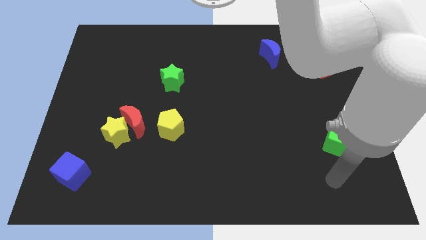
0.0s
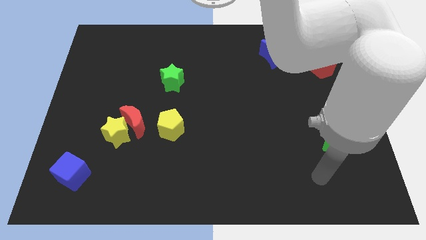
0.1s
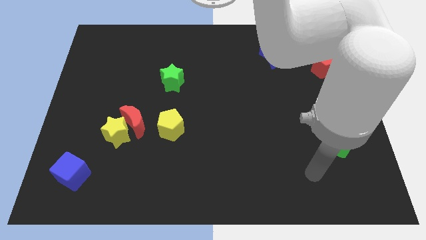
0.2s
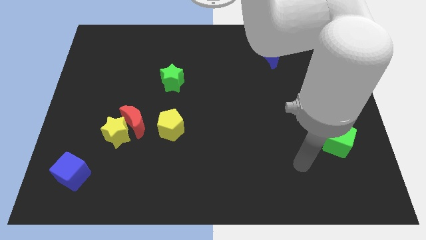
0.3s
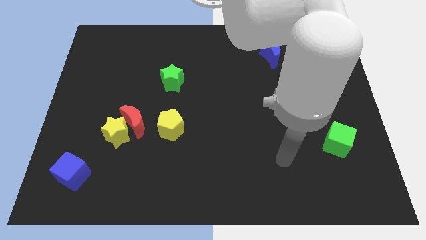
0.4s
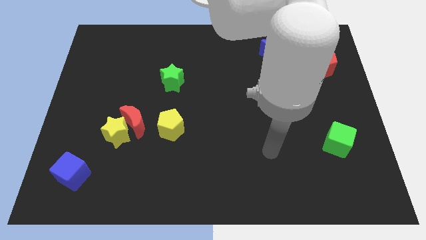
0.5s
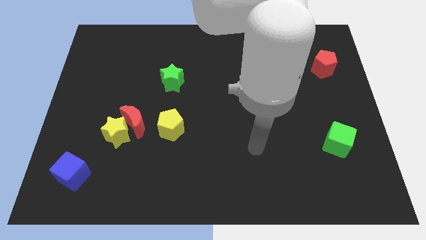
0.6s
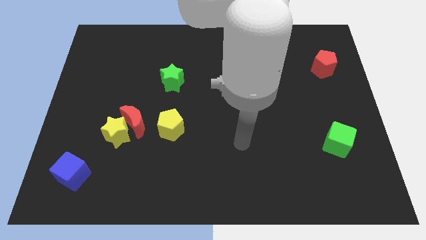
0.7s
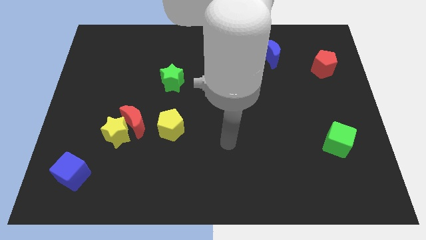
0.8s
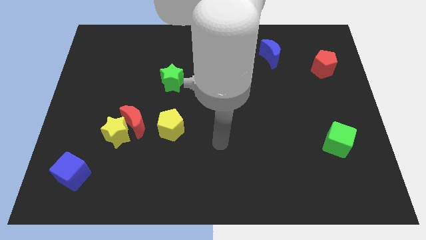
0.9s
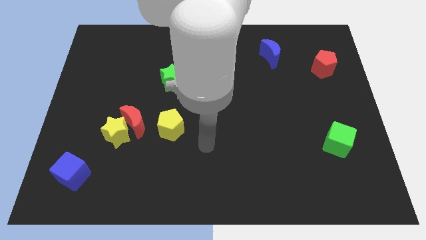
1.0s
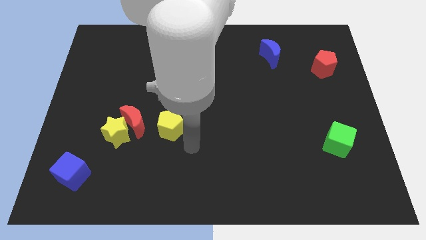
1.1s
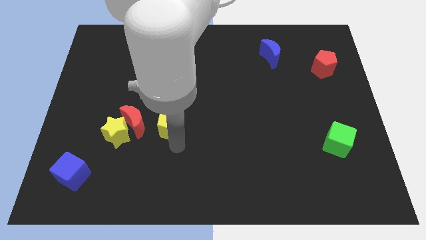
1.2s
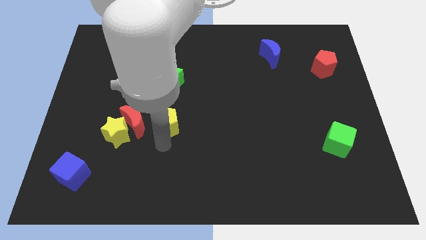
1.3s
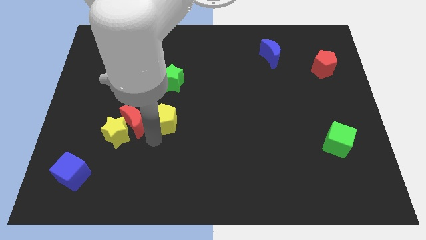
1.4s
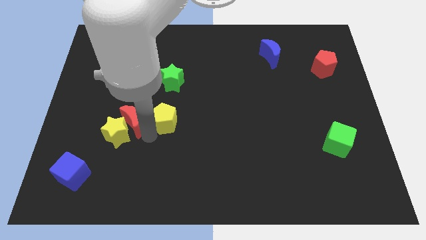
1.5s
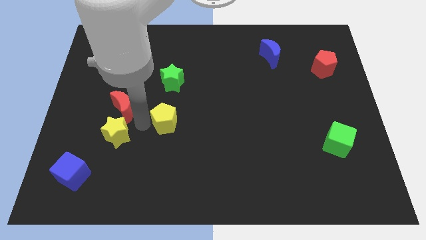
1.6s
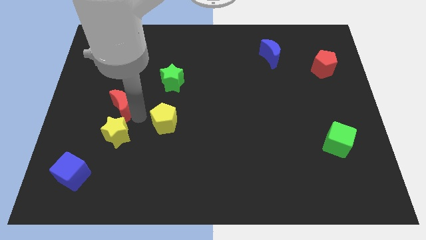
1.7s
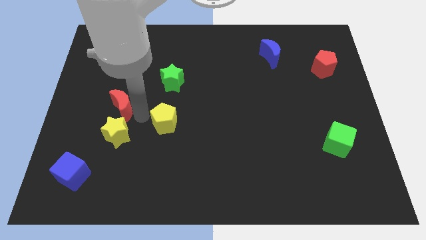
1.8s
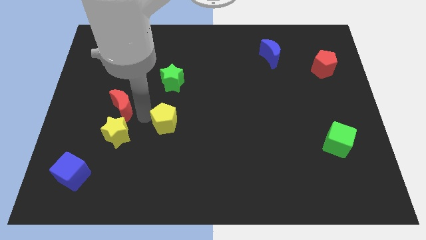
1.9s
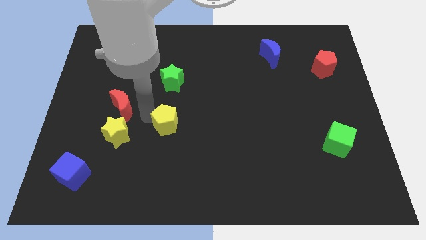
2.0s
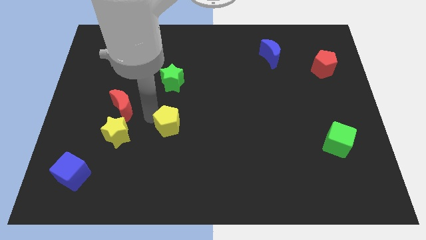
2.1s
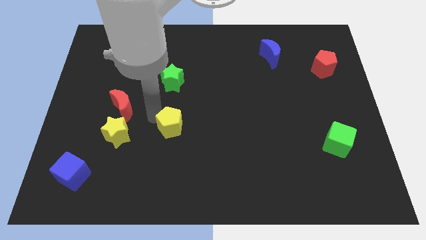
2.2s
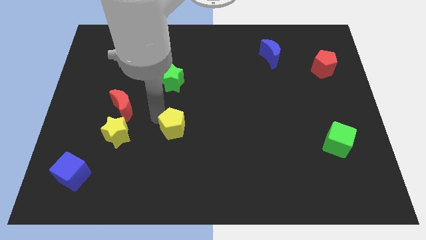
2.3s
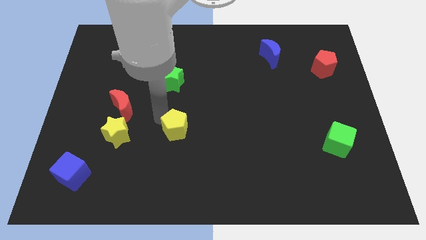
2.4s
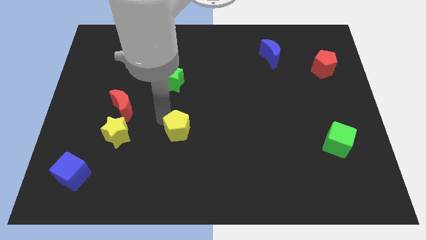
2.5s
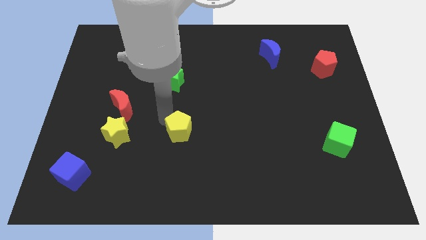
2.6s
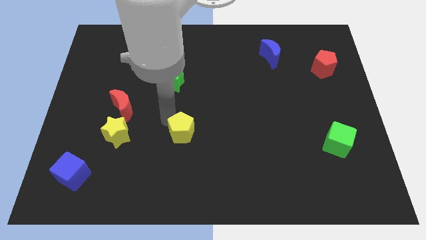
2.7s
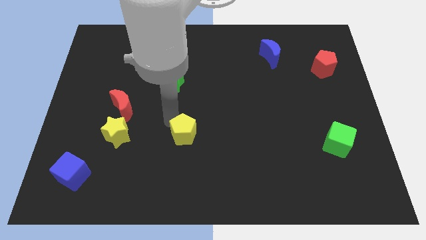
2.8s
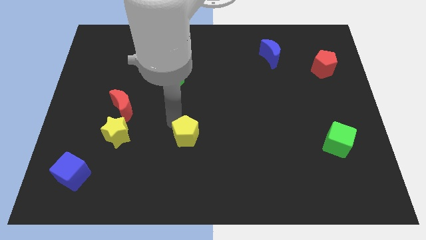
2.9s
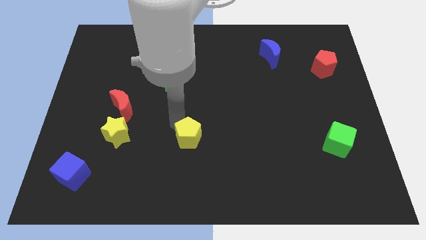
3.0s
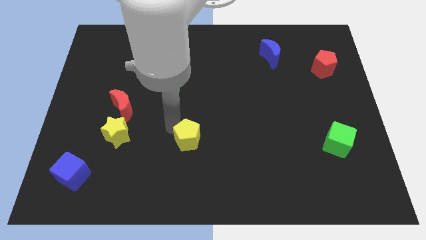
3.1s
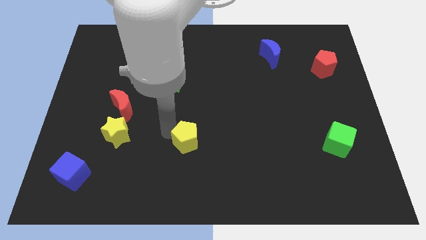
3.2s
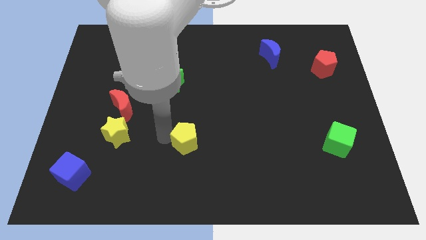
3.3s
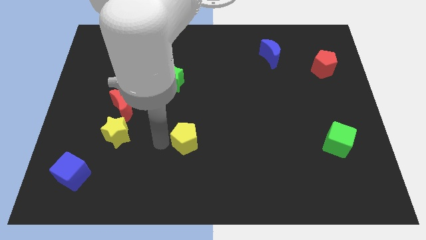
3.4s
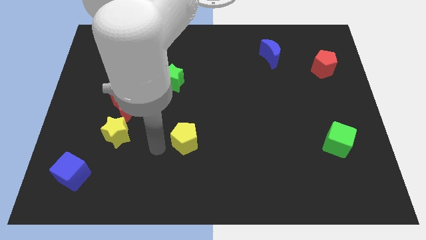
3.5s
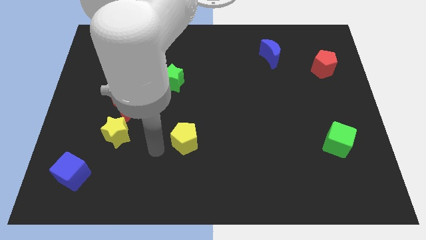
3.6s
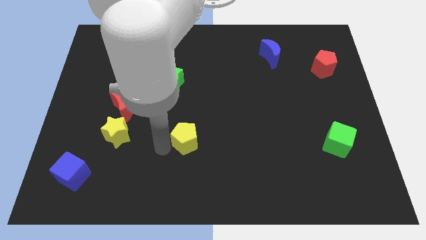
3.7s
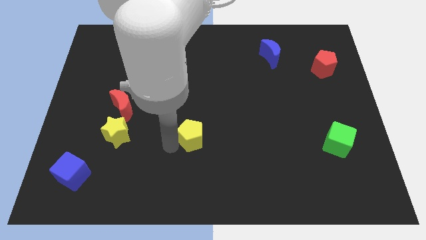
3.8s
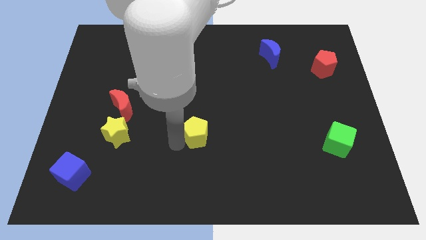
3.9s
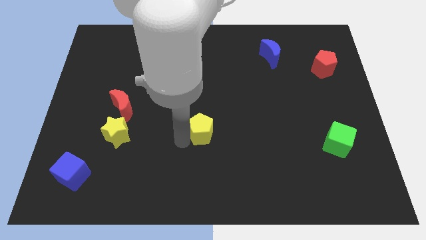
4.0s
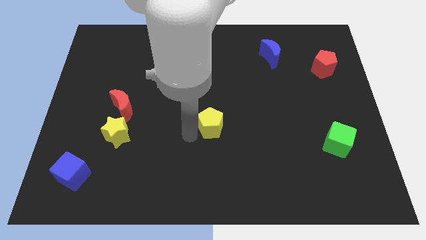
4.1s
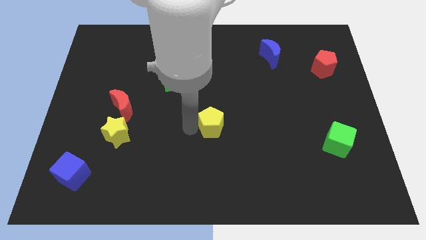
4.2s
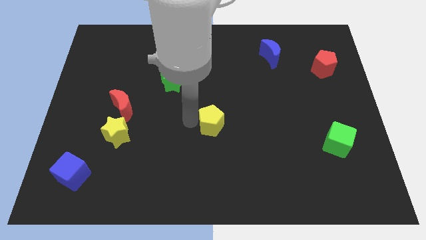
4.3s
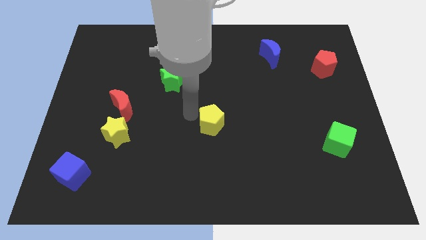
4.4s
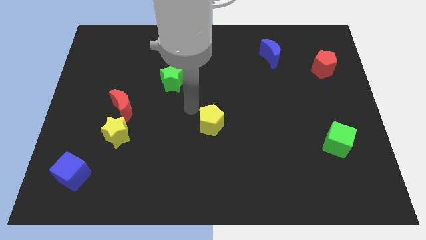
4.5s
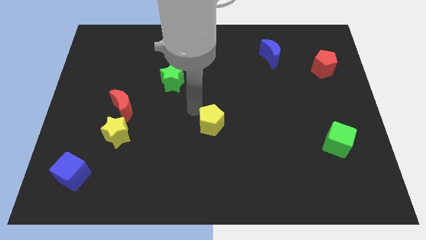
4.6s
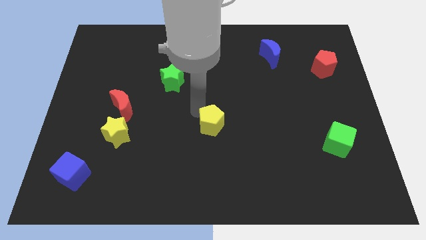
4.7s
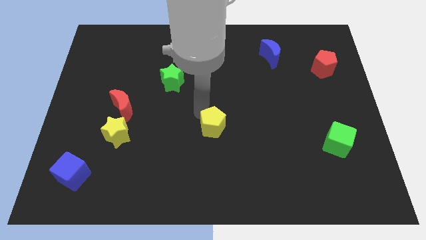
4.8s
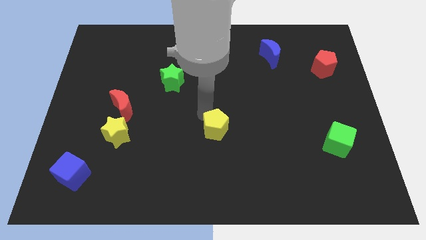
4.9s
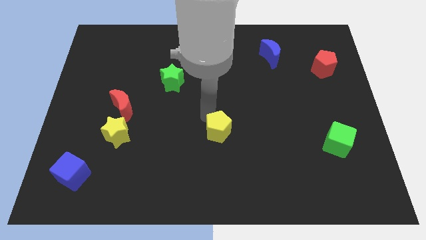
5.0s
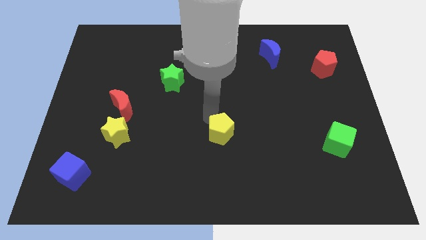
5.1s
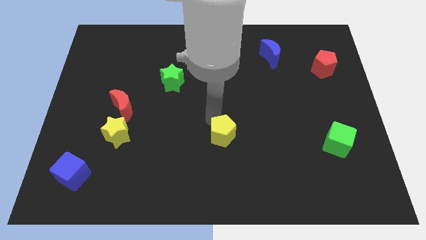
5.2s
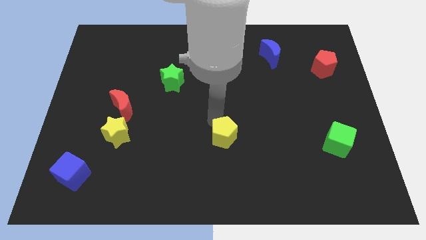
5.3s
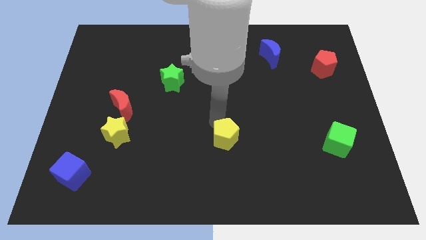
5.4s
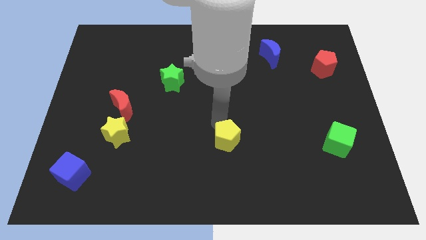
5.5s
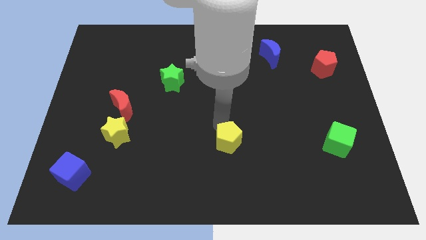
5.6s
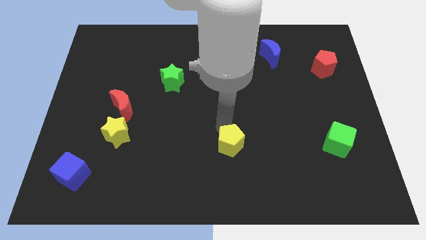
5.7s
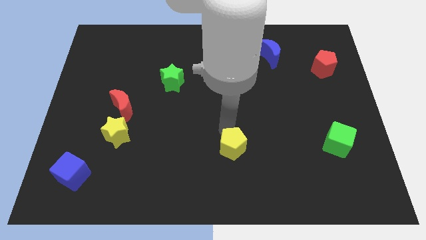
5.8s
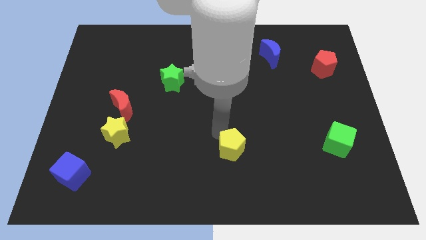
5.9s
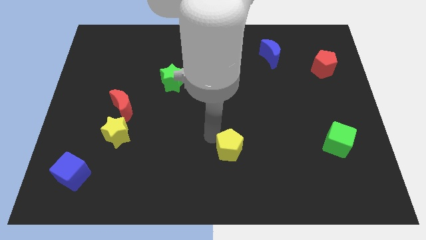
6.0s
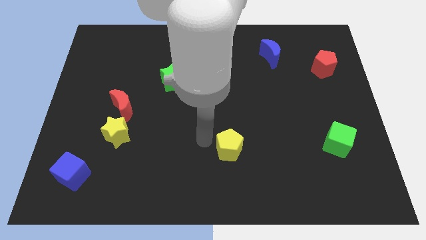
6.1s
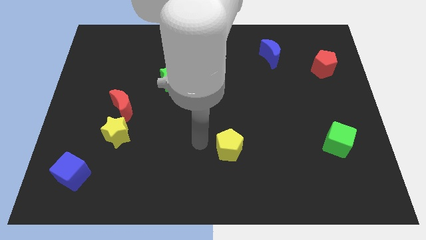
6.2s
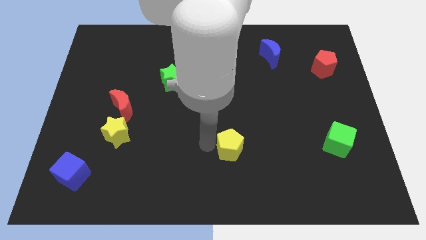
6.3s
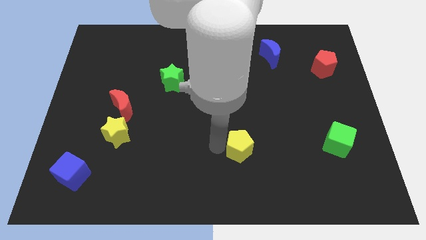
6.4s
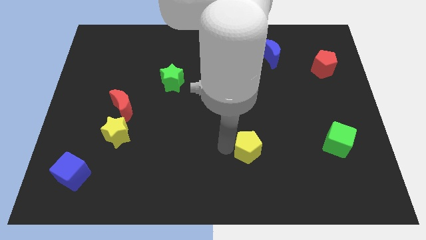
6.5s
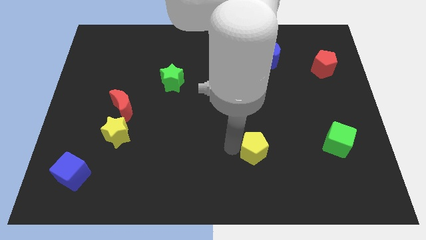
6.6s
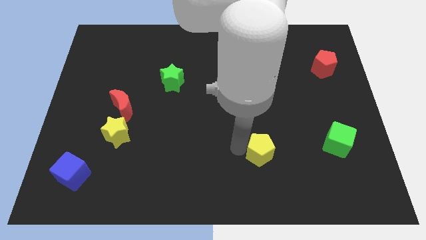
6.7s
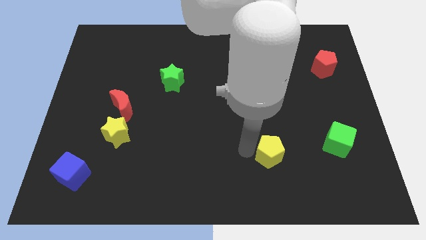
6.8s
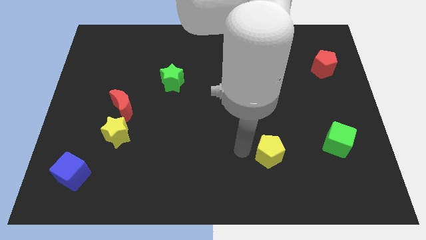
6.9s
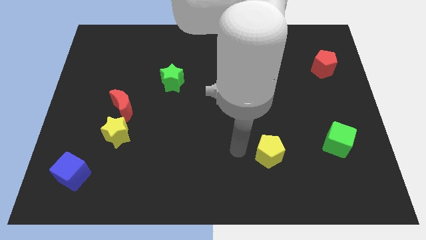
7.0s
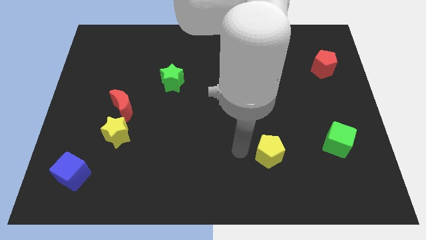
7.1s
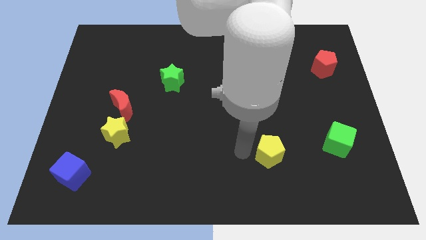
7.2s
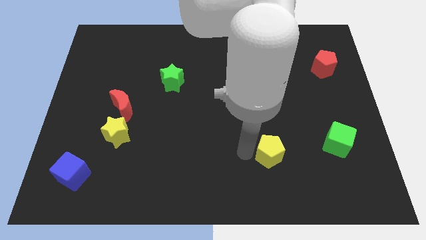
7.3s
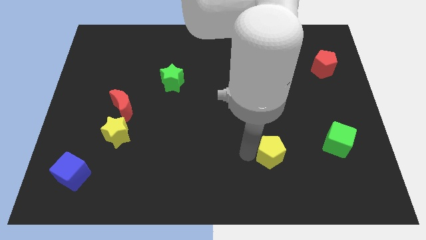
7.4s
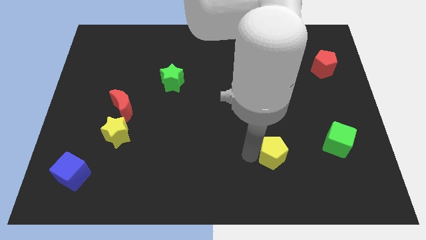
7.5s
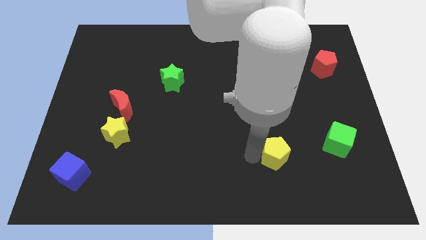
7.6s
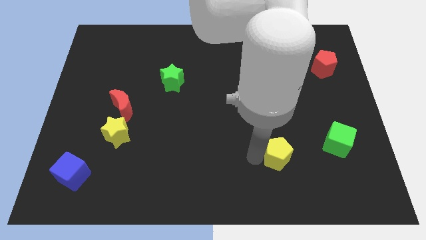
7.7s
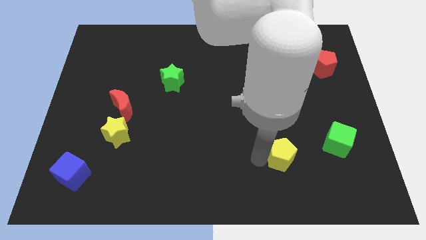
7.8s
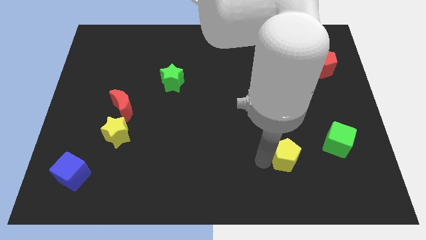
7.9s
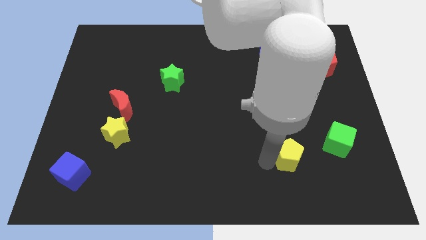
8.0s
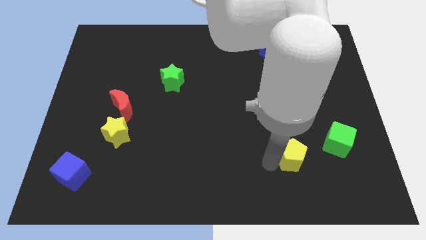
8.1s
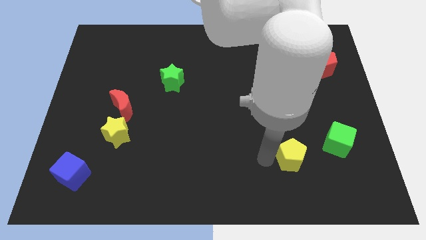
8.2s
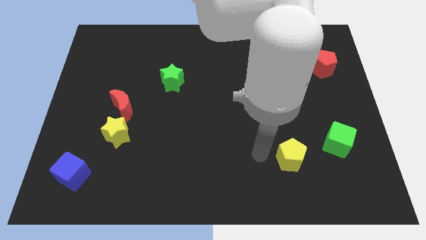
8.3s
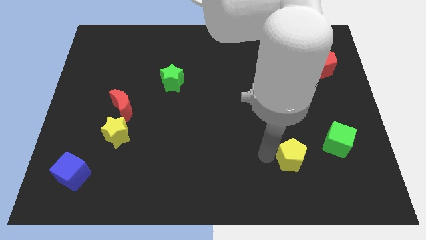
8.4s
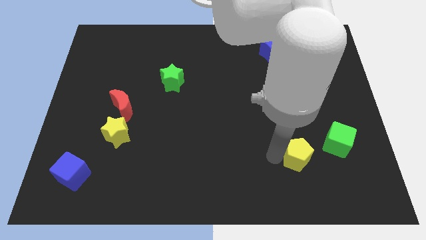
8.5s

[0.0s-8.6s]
move the yellow pentagon to the bottom left of the green cube
